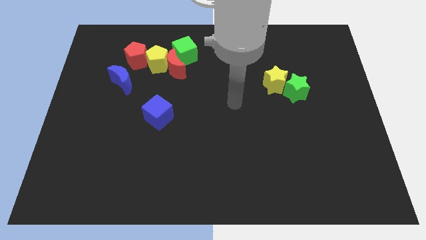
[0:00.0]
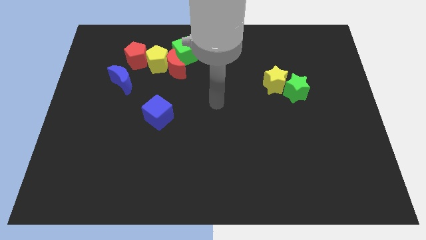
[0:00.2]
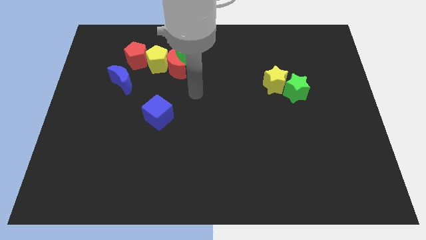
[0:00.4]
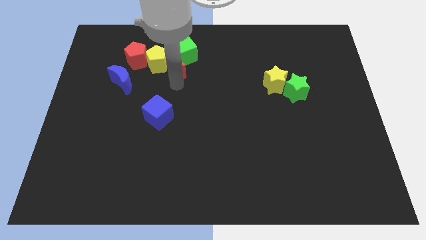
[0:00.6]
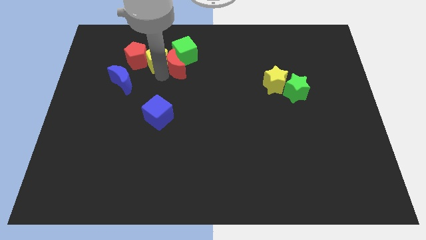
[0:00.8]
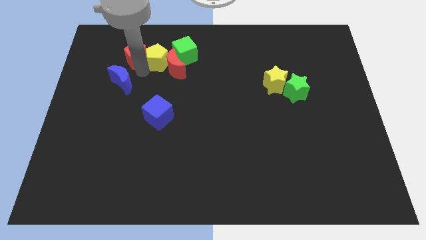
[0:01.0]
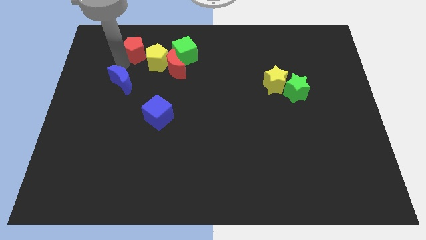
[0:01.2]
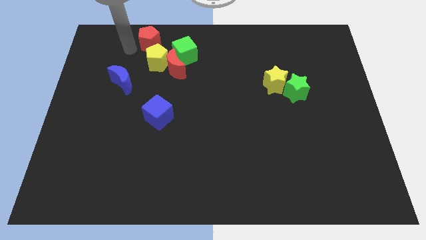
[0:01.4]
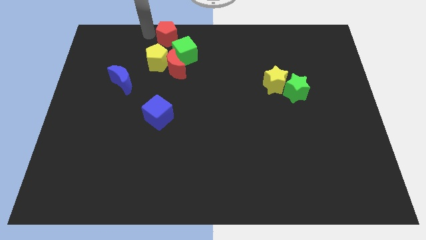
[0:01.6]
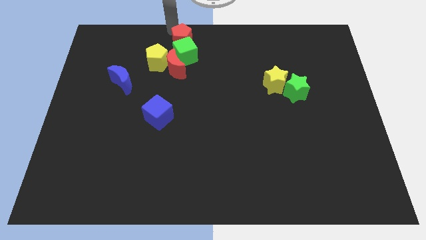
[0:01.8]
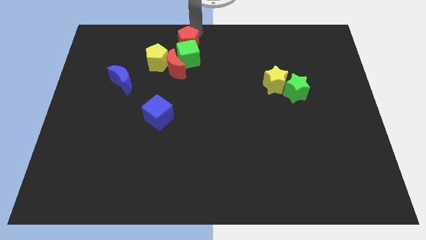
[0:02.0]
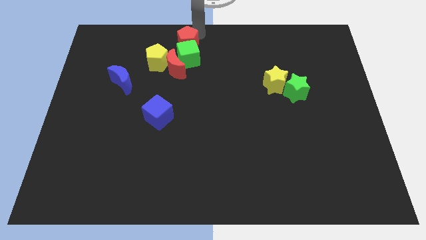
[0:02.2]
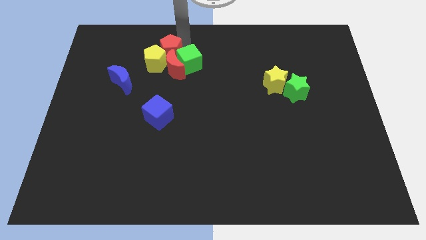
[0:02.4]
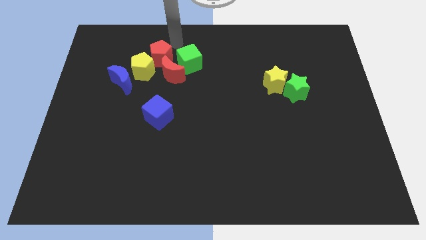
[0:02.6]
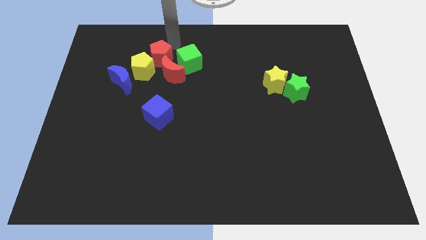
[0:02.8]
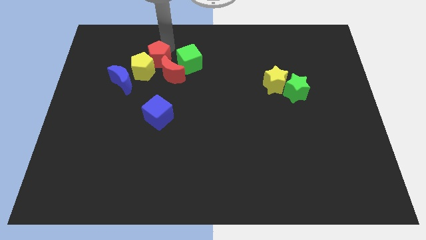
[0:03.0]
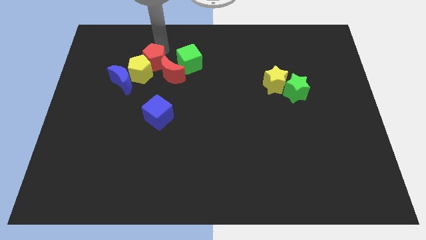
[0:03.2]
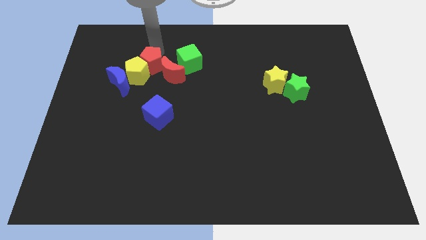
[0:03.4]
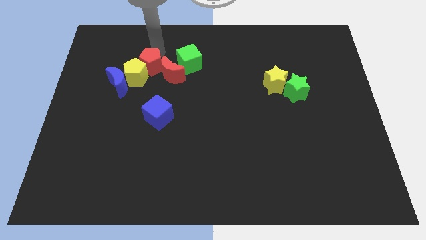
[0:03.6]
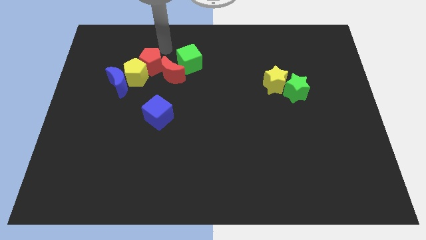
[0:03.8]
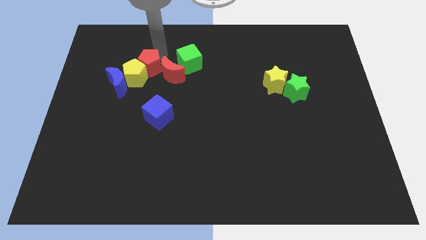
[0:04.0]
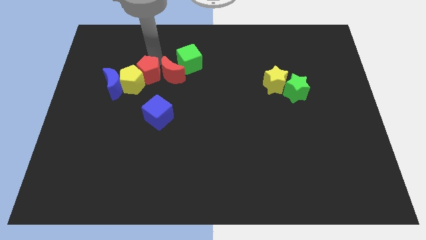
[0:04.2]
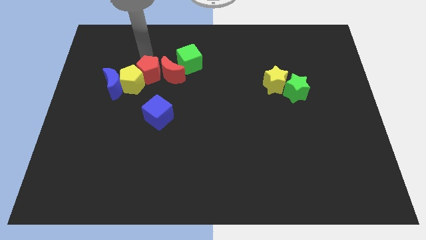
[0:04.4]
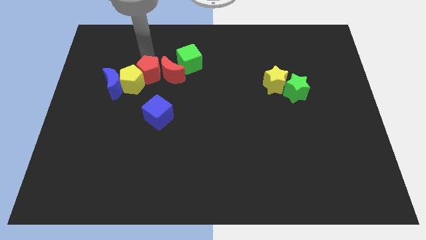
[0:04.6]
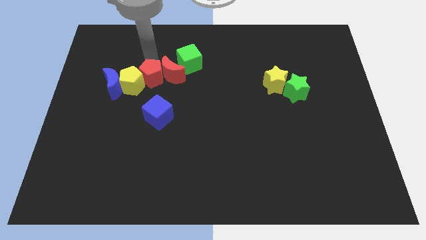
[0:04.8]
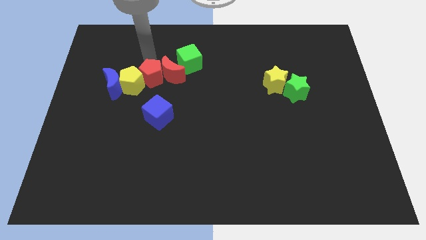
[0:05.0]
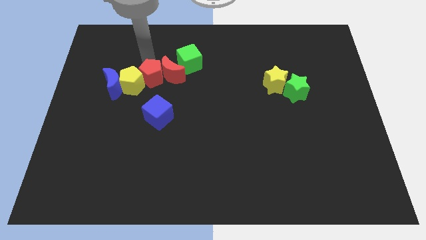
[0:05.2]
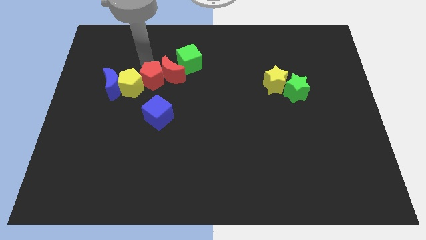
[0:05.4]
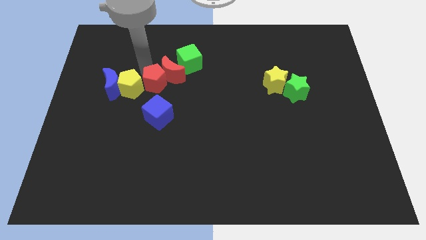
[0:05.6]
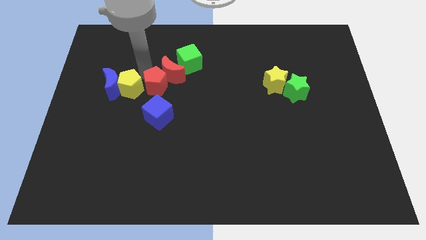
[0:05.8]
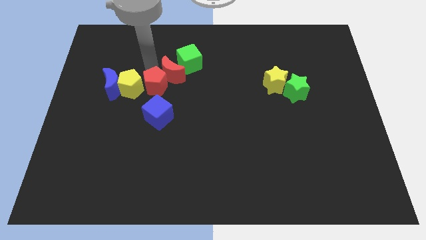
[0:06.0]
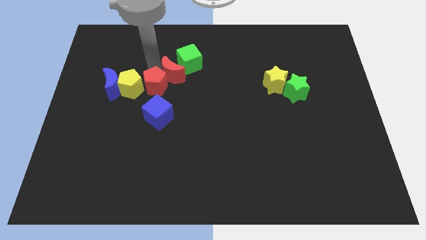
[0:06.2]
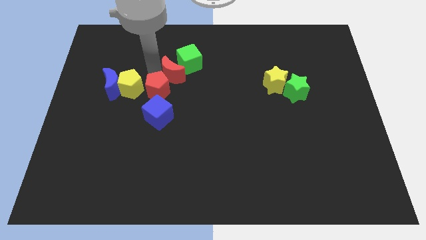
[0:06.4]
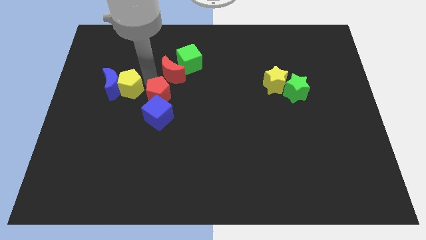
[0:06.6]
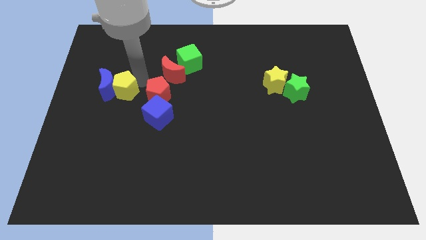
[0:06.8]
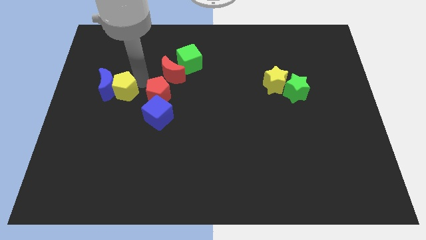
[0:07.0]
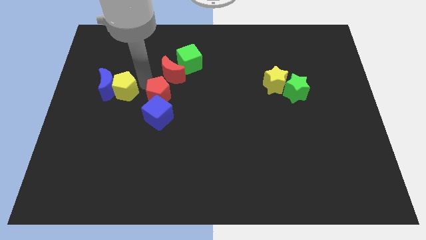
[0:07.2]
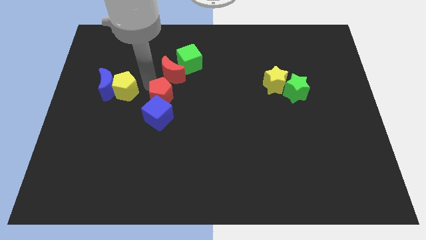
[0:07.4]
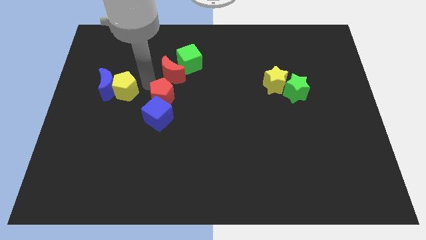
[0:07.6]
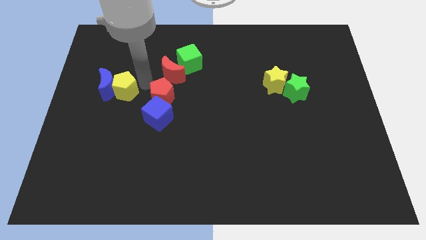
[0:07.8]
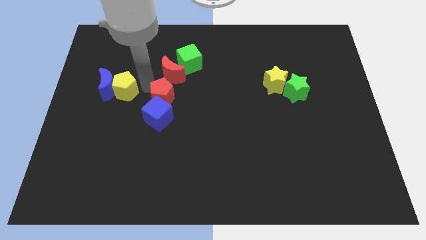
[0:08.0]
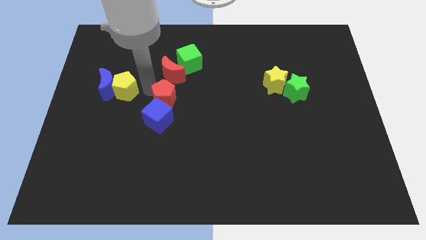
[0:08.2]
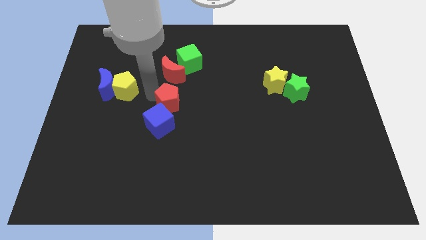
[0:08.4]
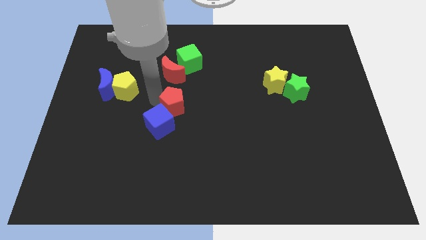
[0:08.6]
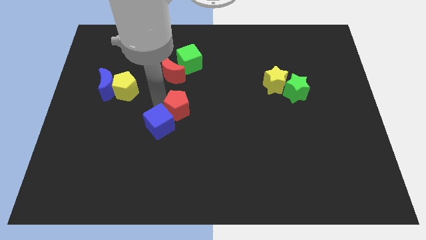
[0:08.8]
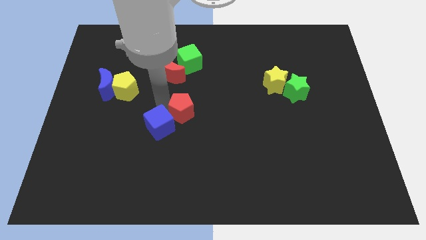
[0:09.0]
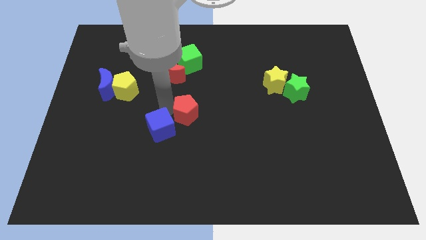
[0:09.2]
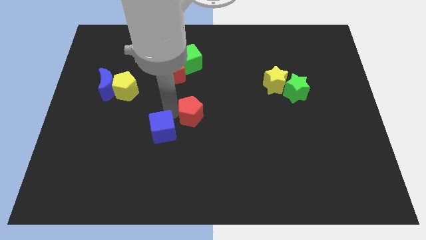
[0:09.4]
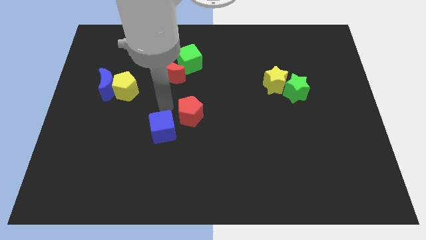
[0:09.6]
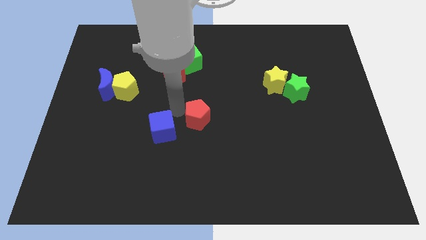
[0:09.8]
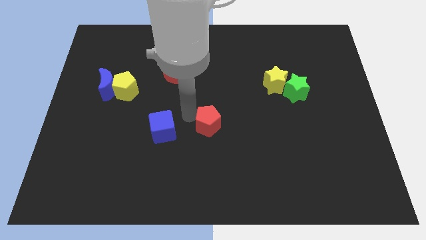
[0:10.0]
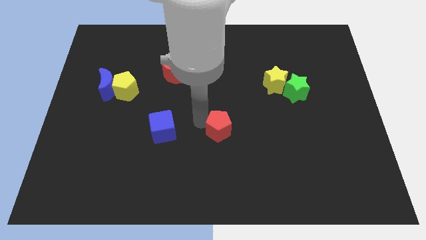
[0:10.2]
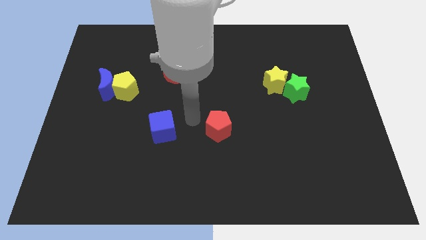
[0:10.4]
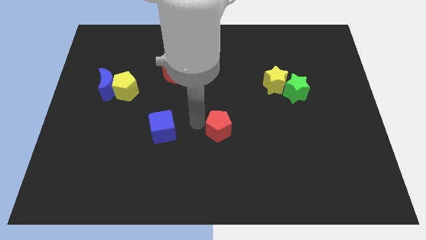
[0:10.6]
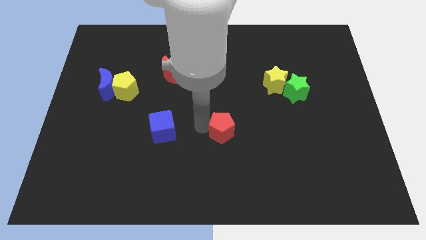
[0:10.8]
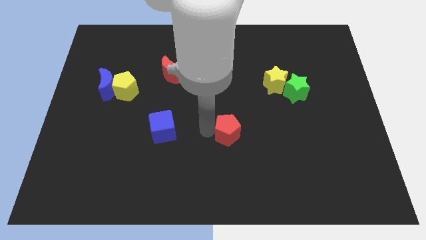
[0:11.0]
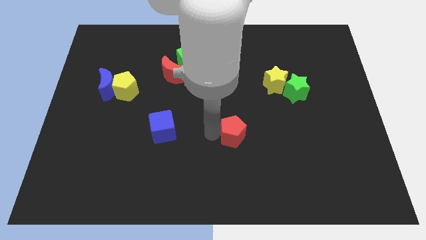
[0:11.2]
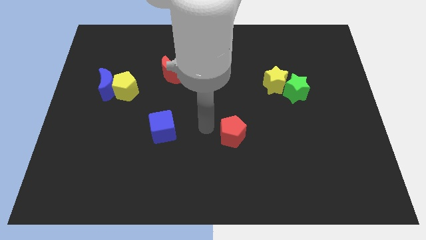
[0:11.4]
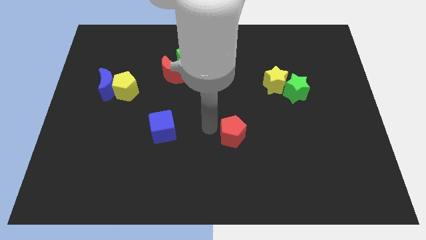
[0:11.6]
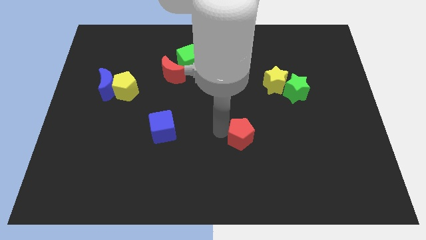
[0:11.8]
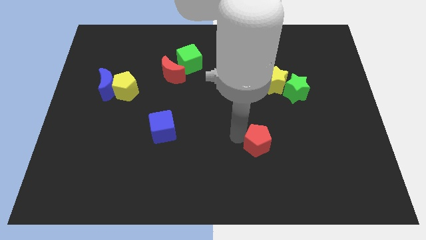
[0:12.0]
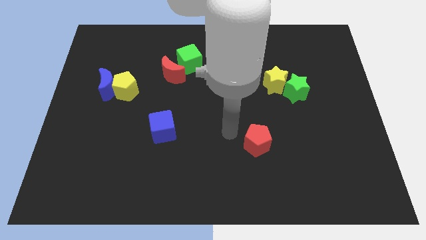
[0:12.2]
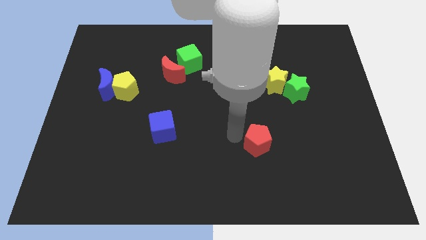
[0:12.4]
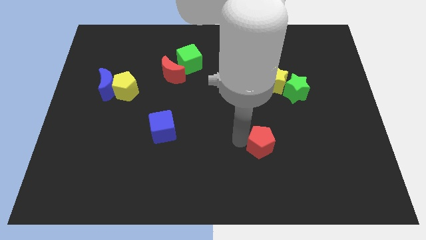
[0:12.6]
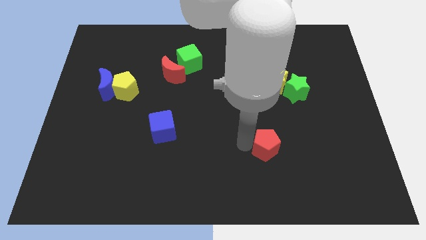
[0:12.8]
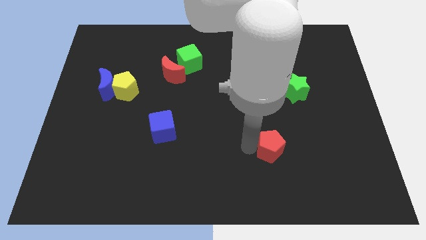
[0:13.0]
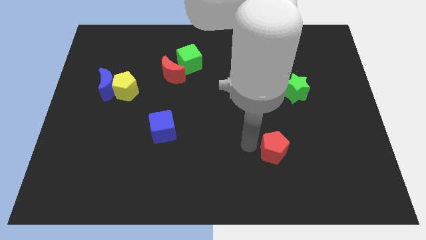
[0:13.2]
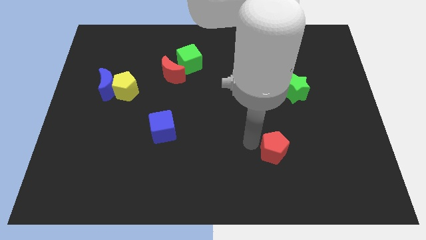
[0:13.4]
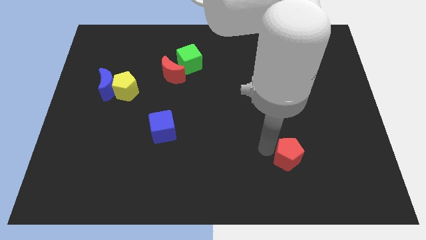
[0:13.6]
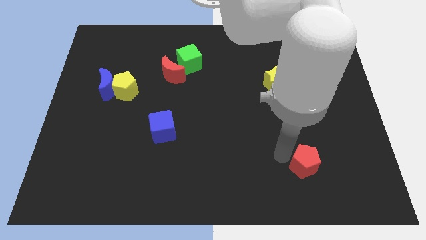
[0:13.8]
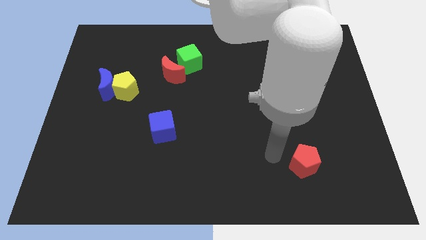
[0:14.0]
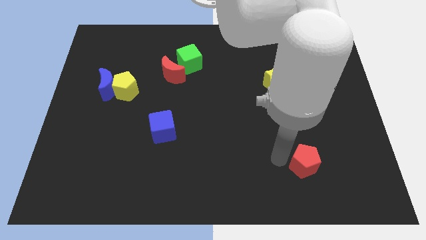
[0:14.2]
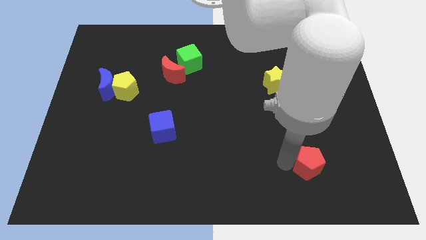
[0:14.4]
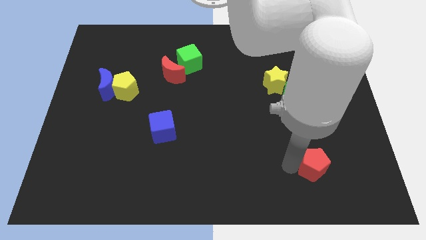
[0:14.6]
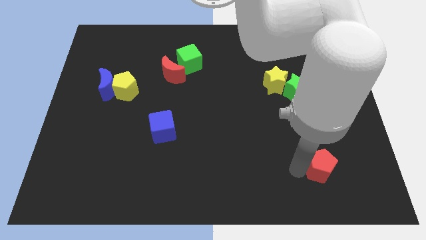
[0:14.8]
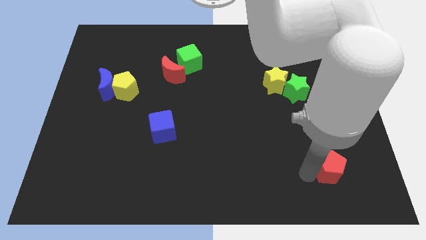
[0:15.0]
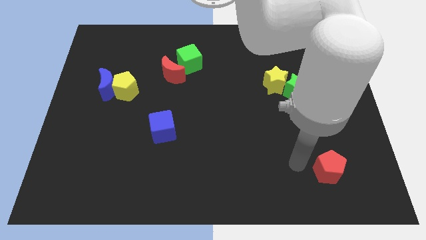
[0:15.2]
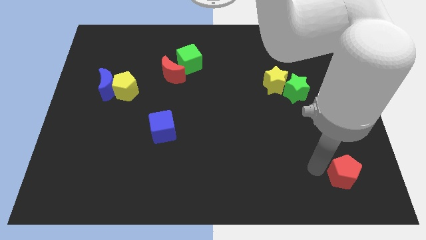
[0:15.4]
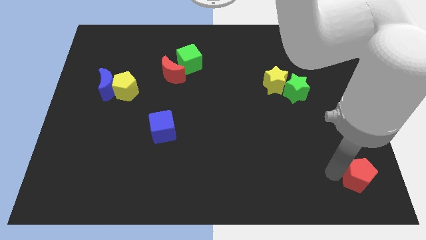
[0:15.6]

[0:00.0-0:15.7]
slide the red pentagon to the lower right corner
